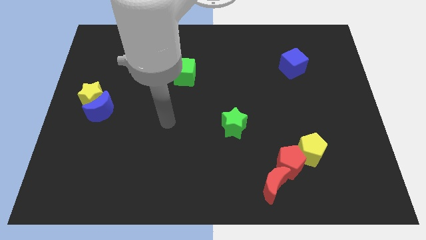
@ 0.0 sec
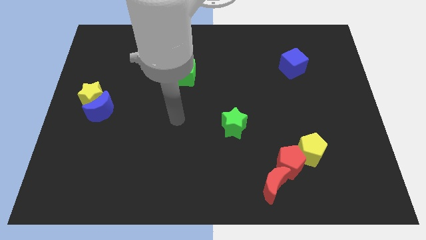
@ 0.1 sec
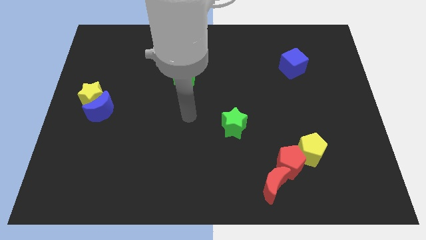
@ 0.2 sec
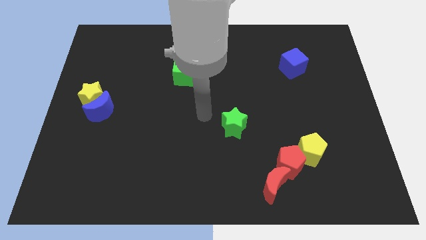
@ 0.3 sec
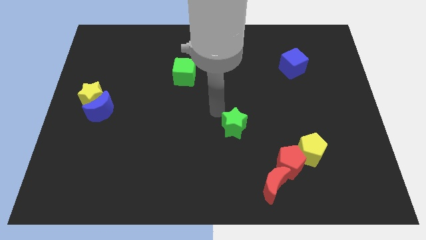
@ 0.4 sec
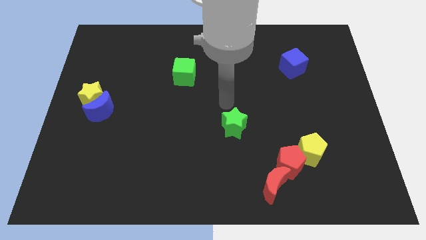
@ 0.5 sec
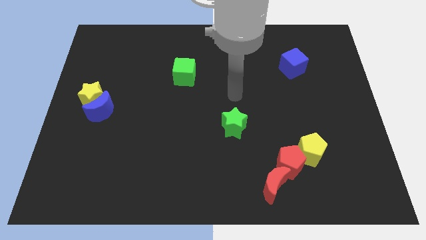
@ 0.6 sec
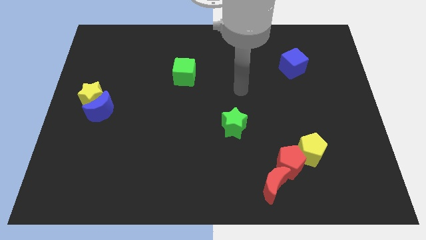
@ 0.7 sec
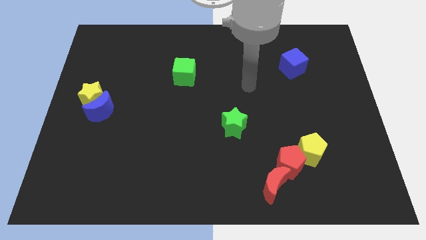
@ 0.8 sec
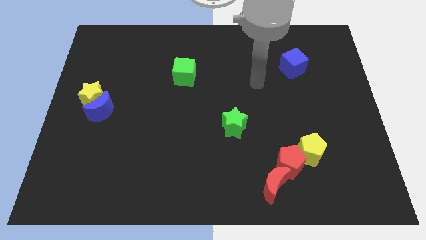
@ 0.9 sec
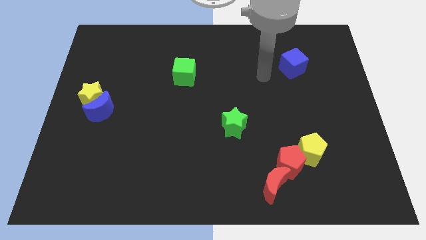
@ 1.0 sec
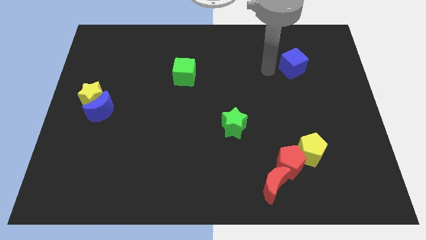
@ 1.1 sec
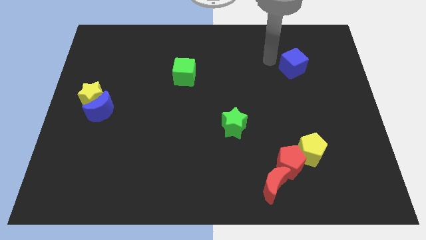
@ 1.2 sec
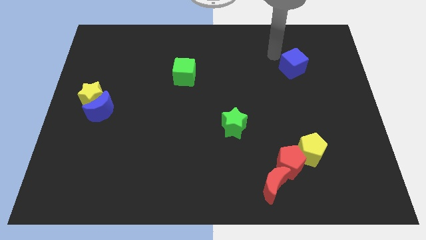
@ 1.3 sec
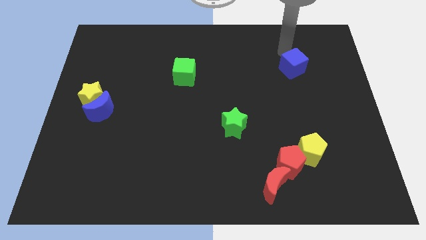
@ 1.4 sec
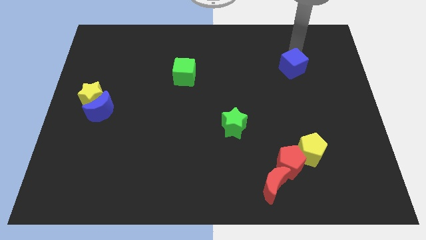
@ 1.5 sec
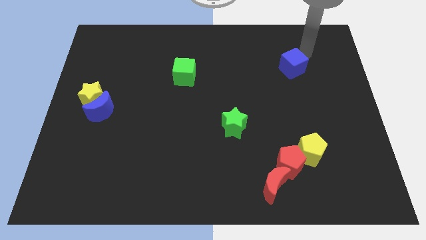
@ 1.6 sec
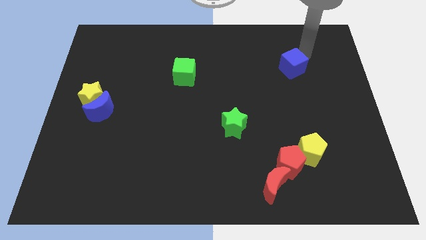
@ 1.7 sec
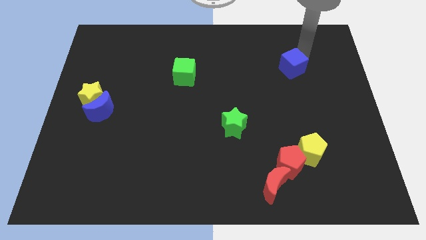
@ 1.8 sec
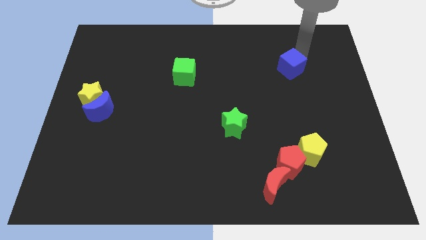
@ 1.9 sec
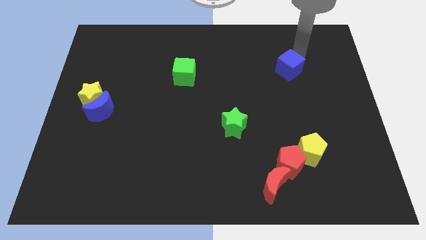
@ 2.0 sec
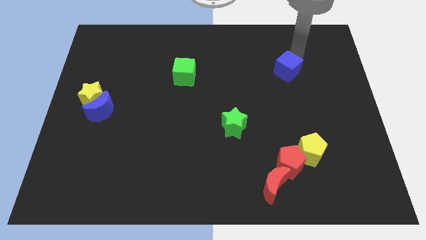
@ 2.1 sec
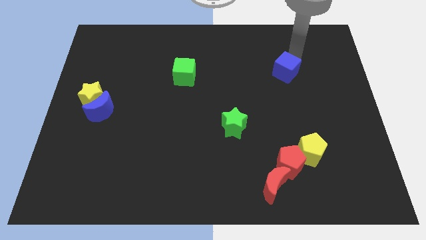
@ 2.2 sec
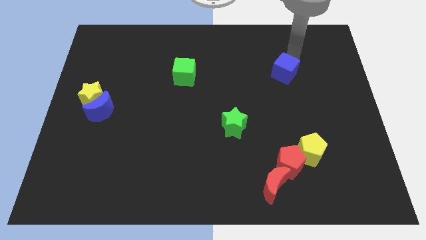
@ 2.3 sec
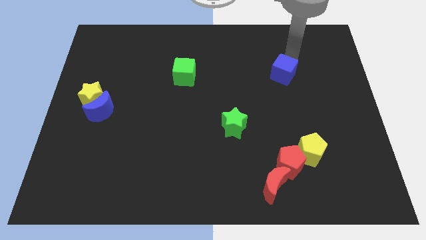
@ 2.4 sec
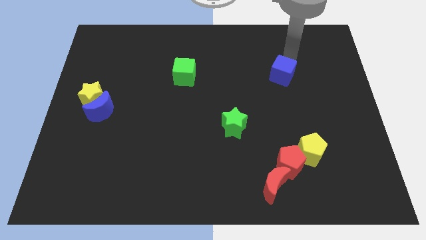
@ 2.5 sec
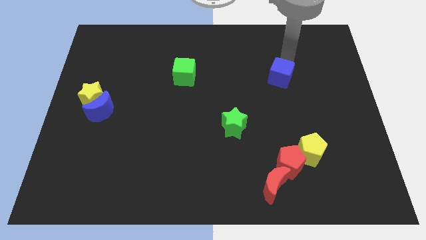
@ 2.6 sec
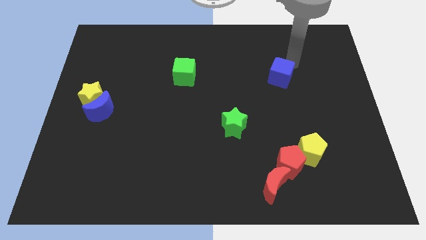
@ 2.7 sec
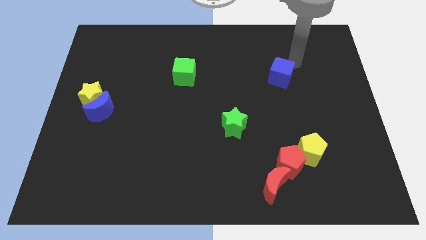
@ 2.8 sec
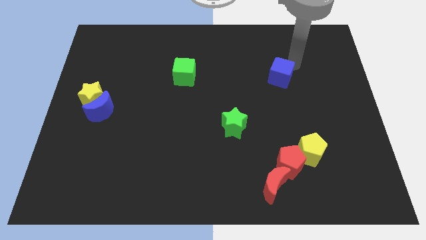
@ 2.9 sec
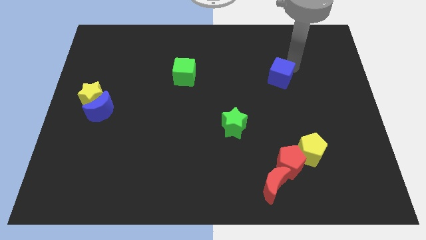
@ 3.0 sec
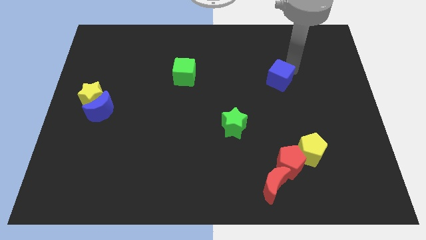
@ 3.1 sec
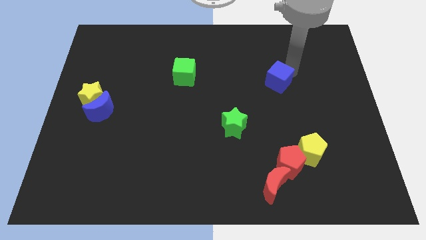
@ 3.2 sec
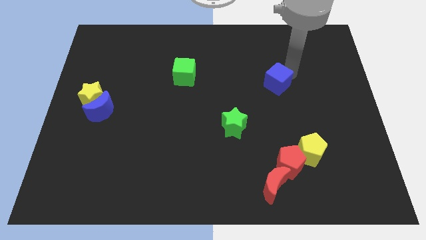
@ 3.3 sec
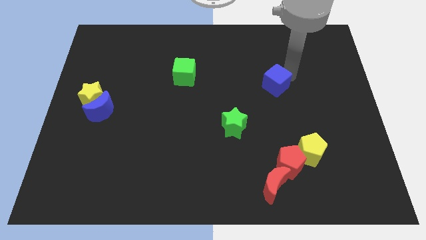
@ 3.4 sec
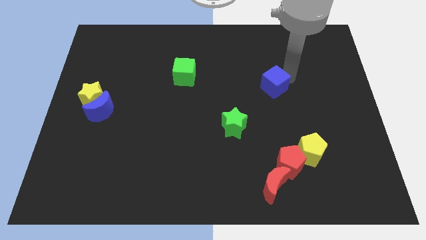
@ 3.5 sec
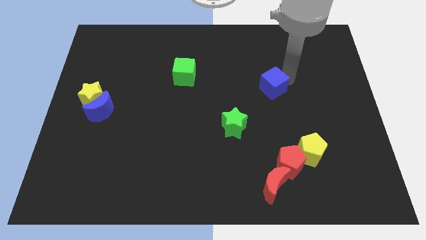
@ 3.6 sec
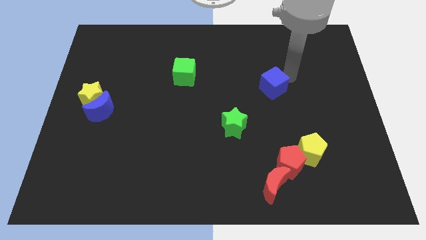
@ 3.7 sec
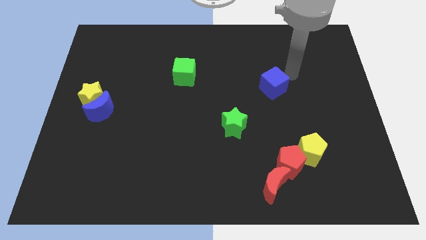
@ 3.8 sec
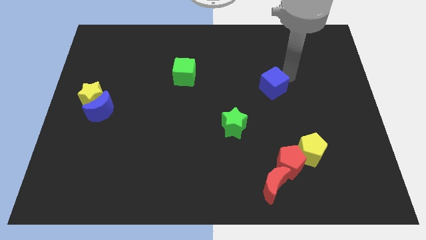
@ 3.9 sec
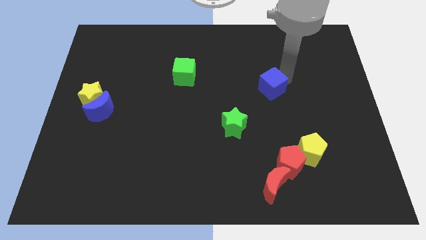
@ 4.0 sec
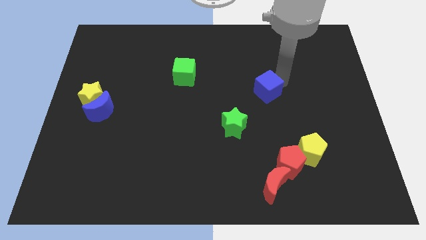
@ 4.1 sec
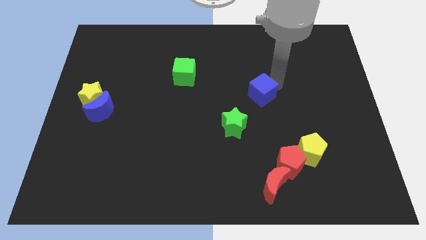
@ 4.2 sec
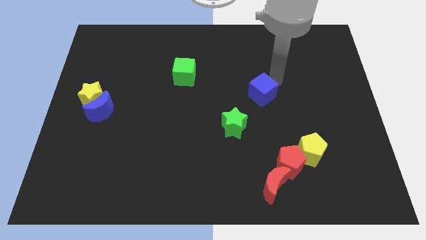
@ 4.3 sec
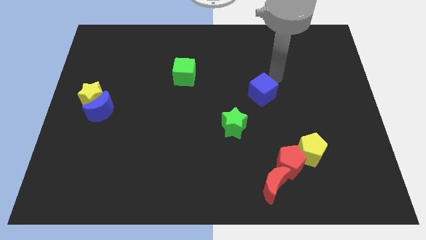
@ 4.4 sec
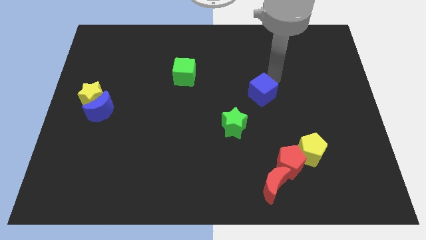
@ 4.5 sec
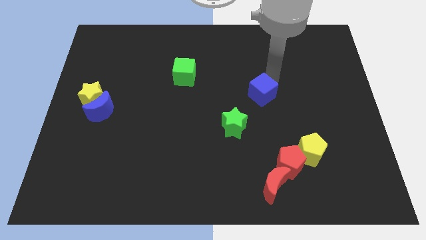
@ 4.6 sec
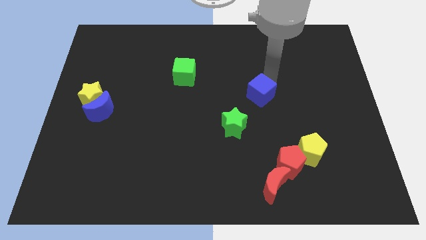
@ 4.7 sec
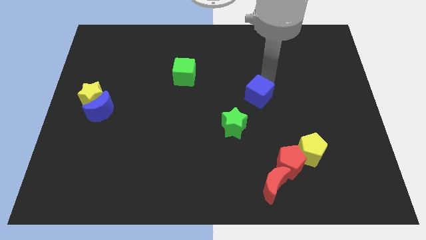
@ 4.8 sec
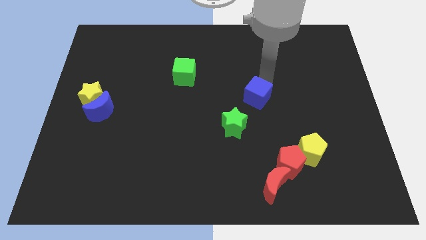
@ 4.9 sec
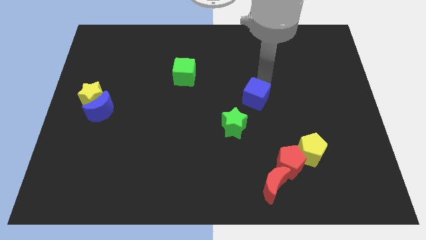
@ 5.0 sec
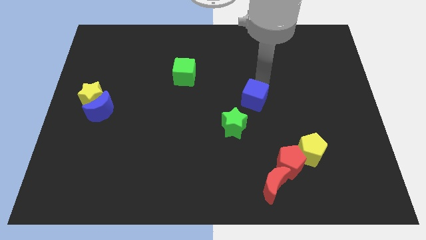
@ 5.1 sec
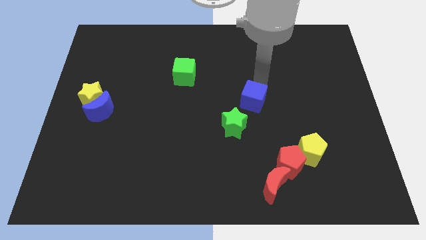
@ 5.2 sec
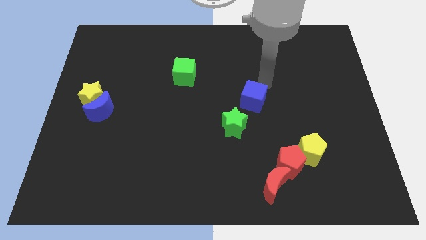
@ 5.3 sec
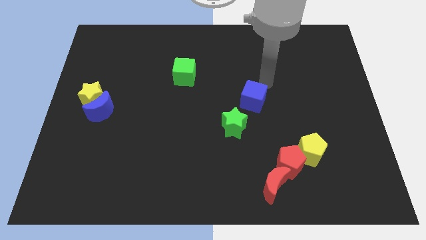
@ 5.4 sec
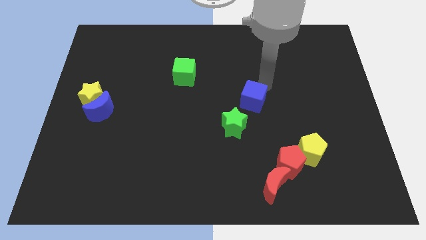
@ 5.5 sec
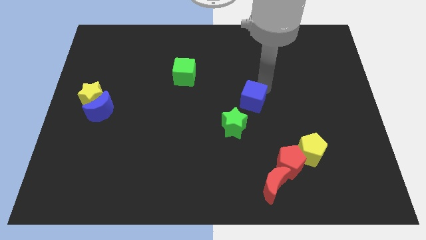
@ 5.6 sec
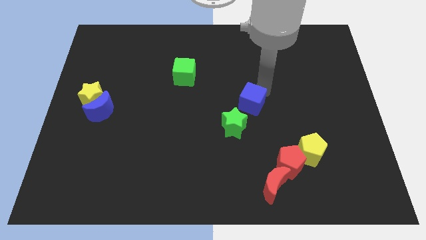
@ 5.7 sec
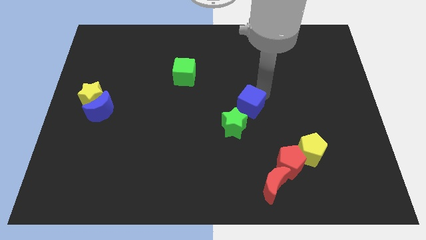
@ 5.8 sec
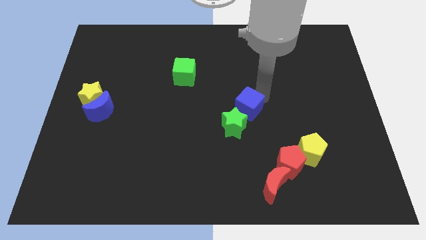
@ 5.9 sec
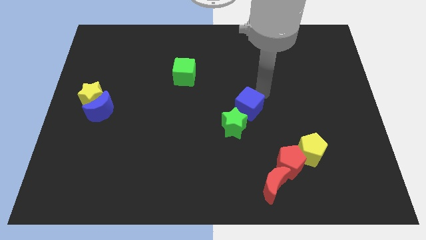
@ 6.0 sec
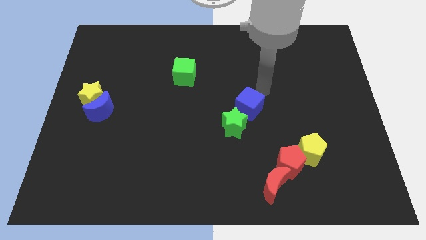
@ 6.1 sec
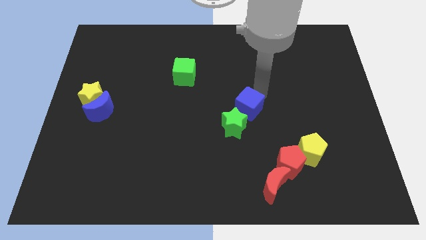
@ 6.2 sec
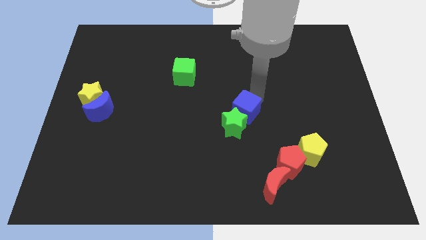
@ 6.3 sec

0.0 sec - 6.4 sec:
push the blue cube next to the green star

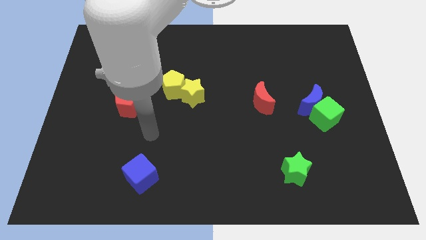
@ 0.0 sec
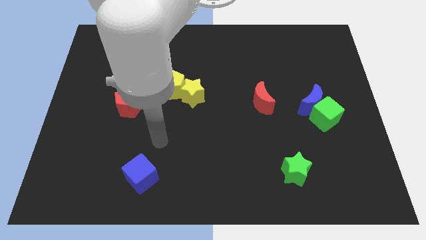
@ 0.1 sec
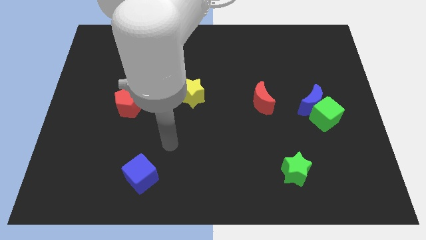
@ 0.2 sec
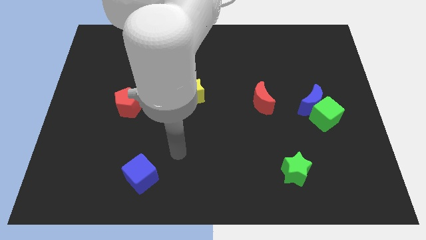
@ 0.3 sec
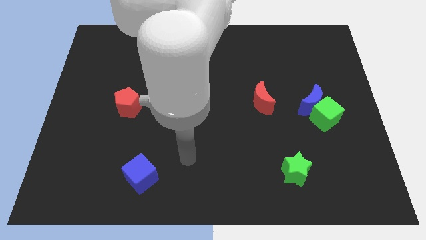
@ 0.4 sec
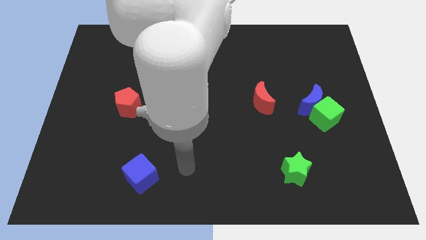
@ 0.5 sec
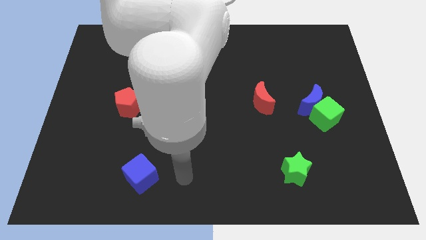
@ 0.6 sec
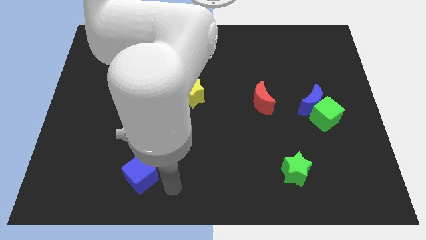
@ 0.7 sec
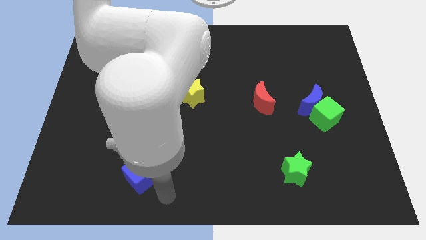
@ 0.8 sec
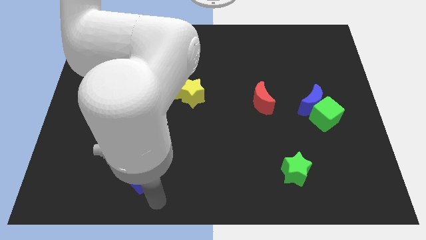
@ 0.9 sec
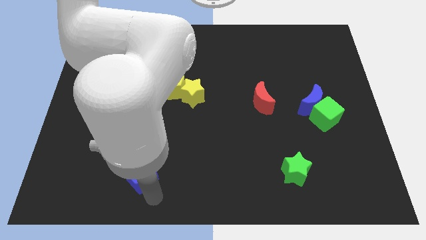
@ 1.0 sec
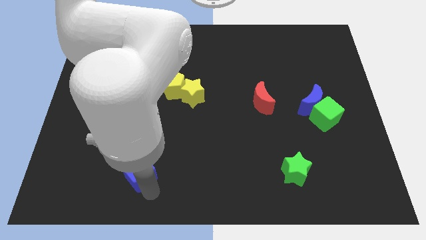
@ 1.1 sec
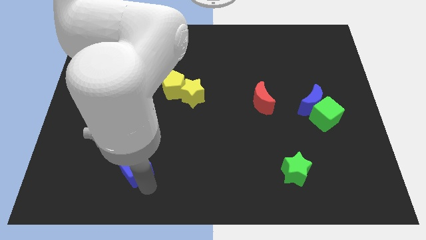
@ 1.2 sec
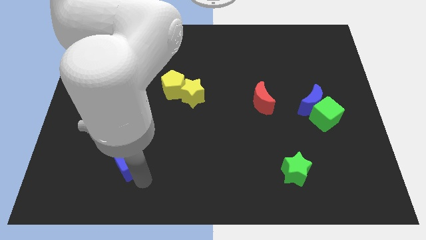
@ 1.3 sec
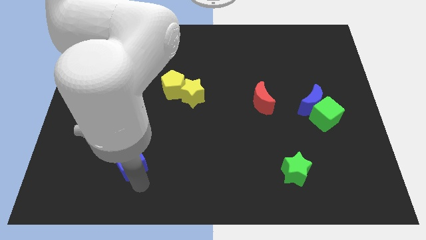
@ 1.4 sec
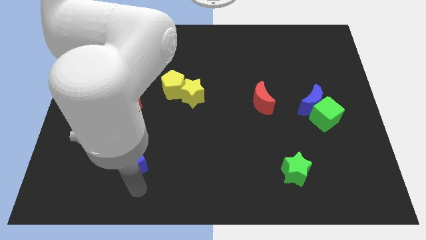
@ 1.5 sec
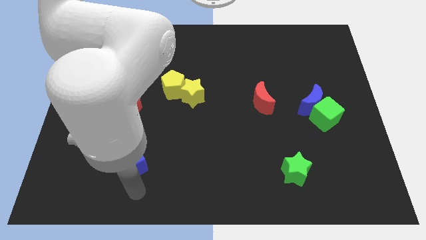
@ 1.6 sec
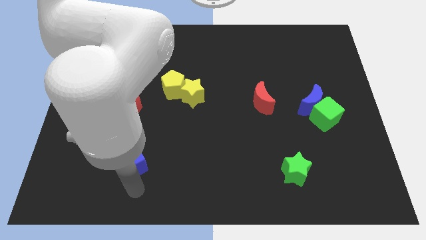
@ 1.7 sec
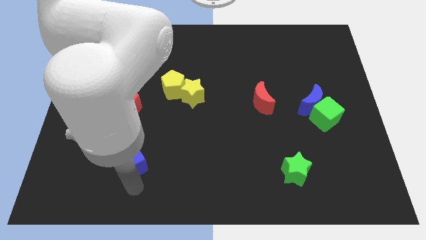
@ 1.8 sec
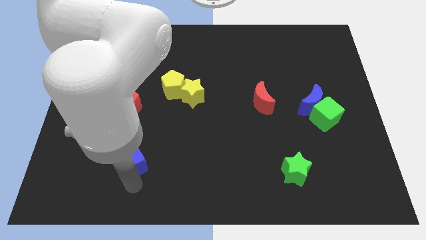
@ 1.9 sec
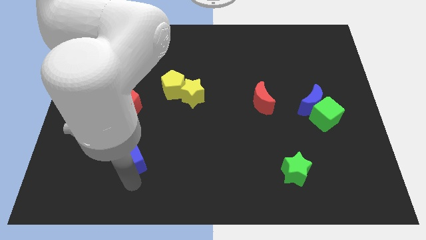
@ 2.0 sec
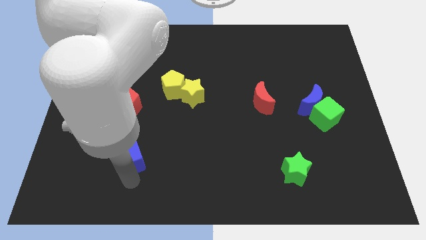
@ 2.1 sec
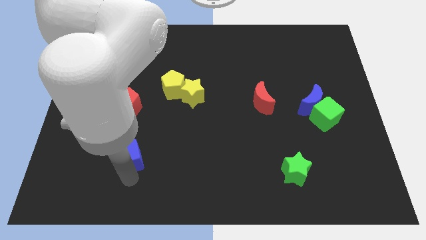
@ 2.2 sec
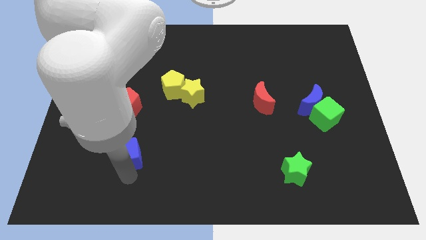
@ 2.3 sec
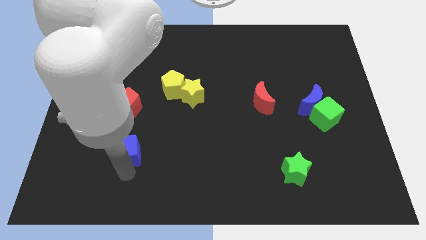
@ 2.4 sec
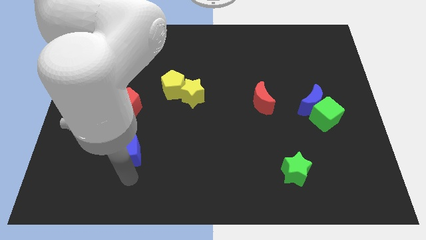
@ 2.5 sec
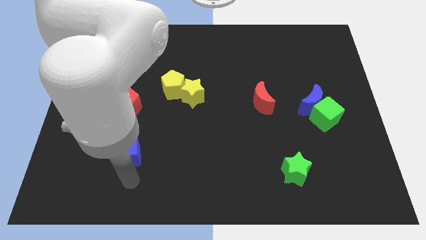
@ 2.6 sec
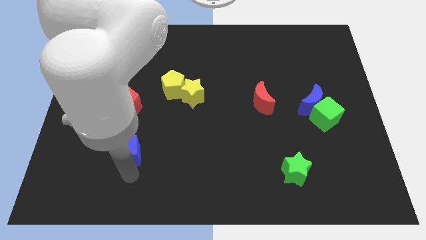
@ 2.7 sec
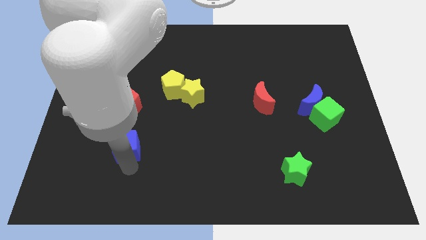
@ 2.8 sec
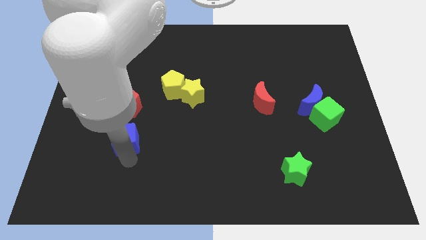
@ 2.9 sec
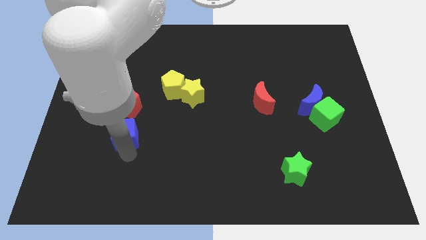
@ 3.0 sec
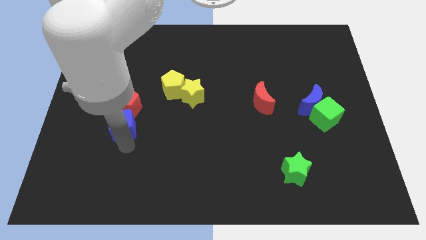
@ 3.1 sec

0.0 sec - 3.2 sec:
push the blue cube towards the red pentagon
